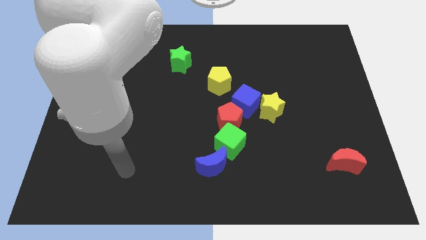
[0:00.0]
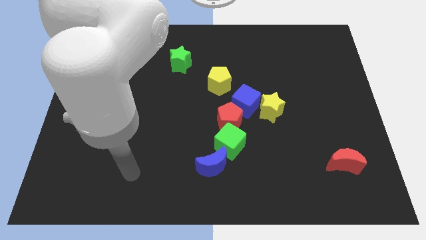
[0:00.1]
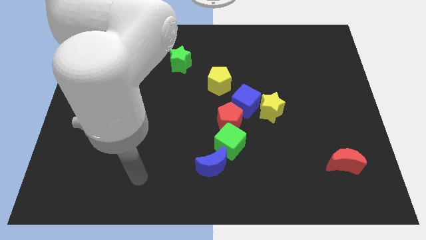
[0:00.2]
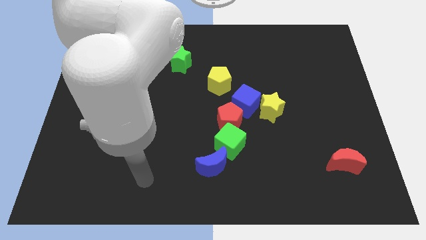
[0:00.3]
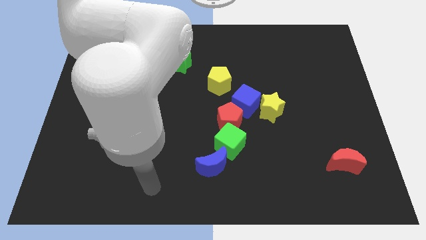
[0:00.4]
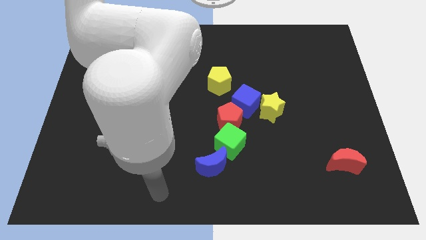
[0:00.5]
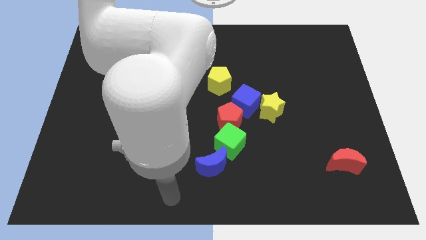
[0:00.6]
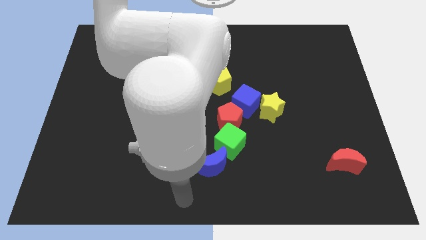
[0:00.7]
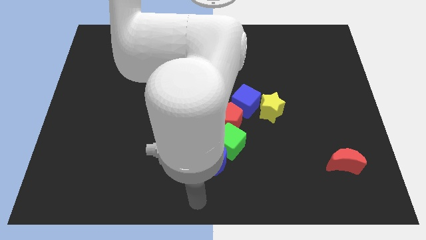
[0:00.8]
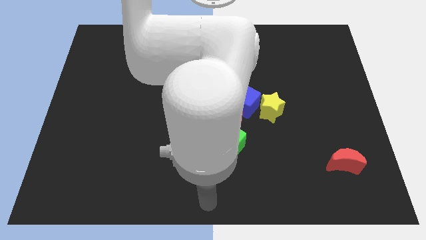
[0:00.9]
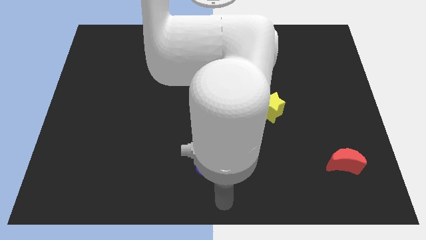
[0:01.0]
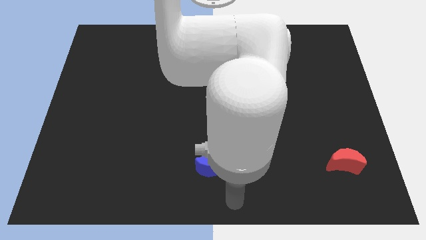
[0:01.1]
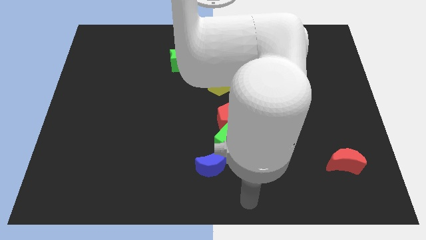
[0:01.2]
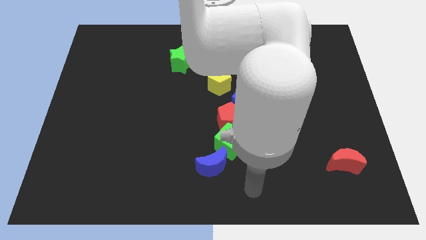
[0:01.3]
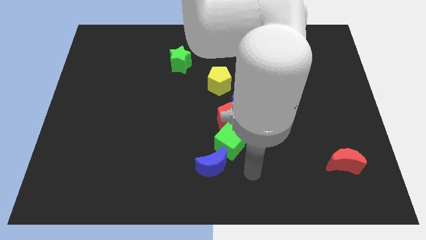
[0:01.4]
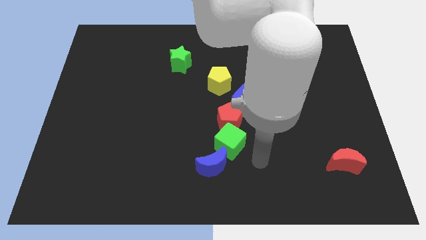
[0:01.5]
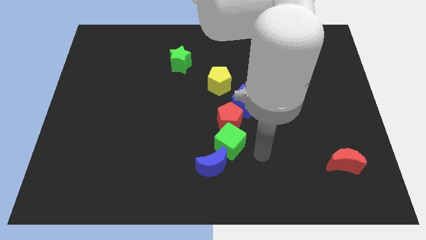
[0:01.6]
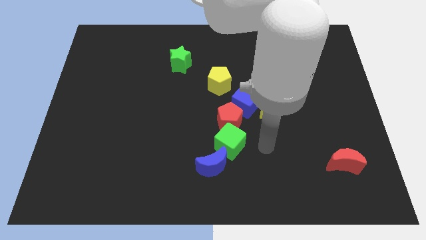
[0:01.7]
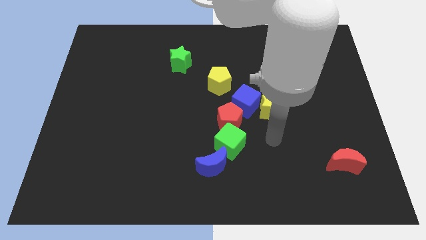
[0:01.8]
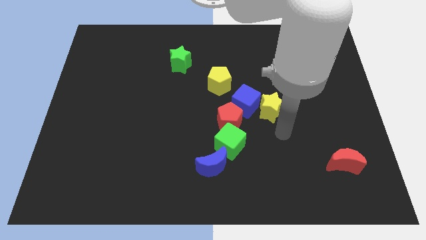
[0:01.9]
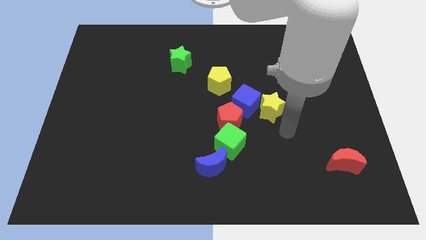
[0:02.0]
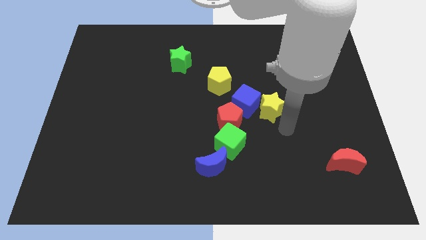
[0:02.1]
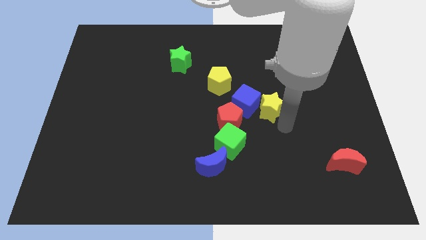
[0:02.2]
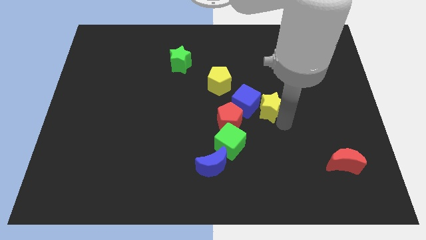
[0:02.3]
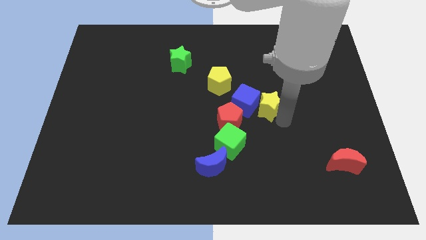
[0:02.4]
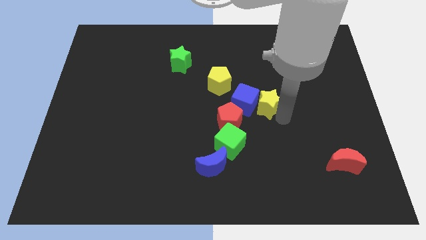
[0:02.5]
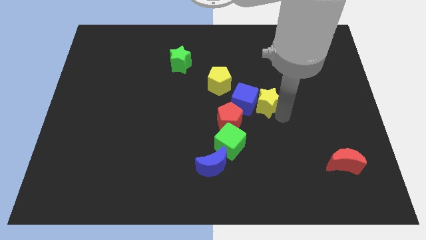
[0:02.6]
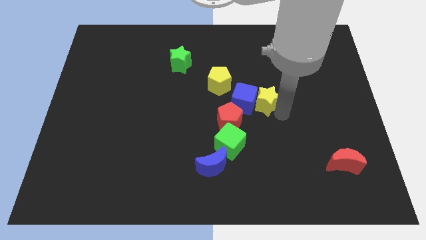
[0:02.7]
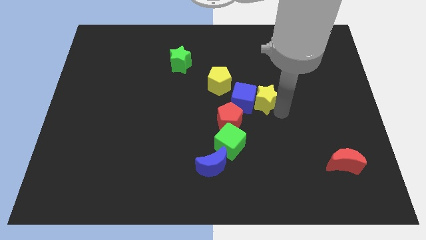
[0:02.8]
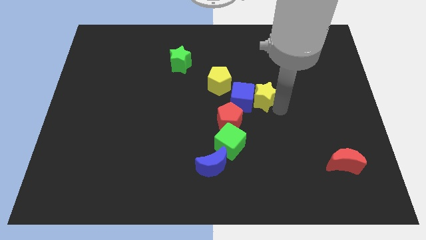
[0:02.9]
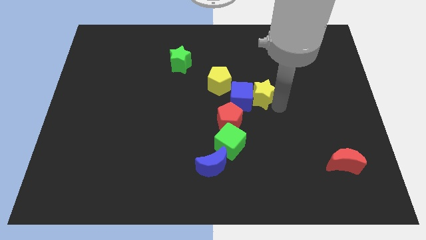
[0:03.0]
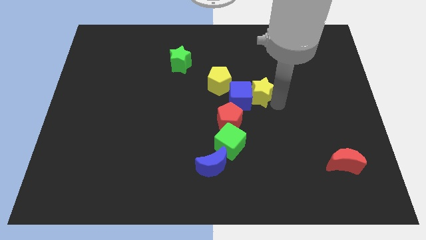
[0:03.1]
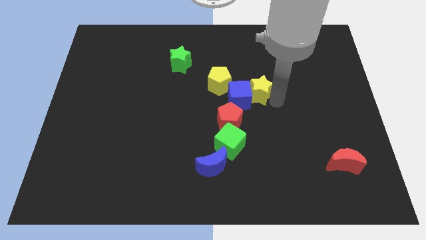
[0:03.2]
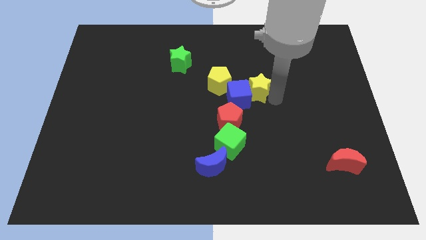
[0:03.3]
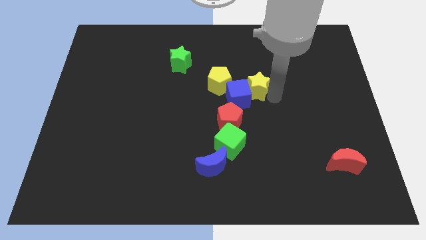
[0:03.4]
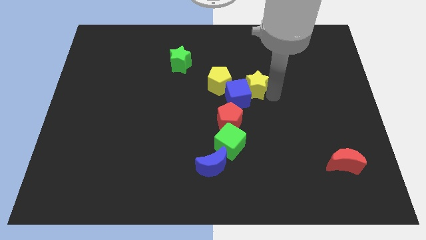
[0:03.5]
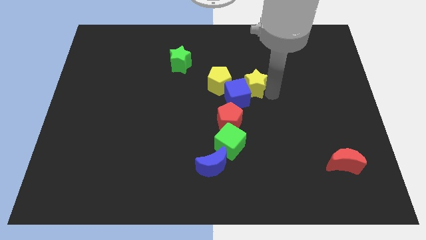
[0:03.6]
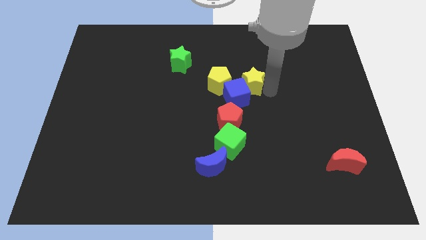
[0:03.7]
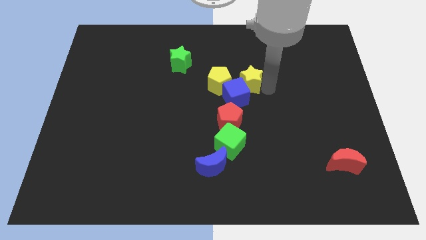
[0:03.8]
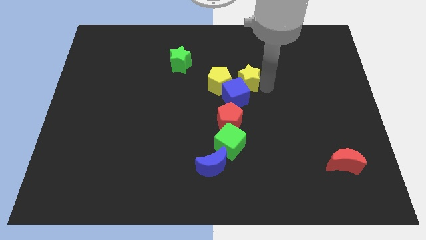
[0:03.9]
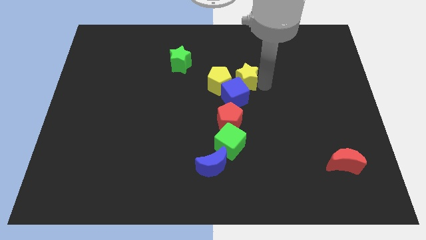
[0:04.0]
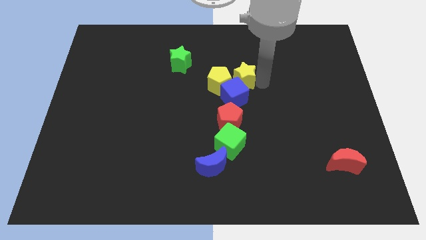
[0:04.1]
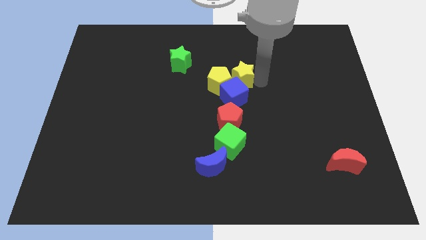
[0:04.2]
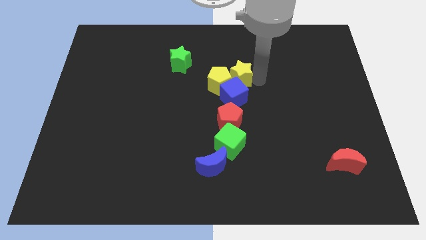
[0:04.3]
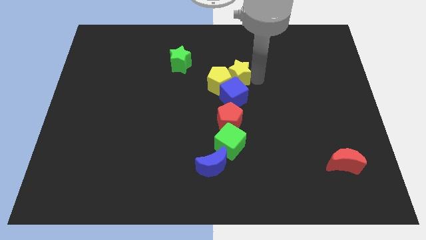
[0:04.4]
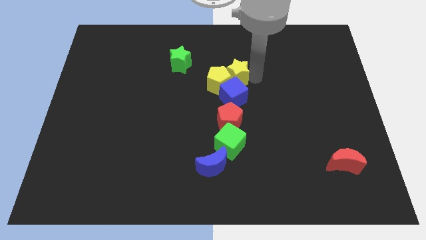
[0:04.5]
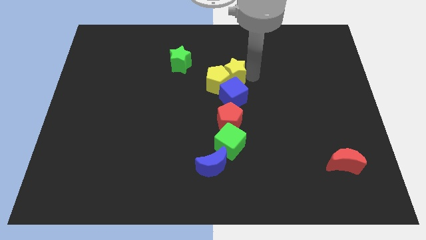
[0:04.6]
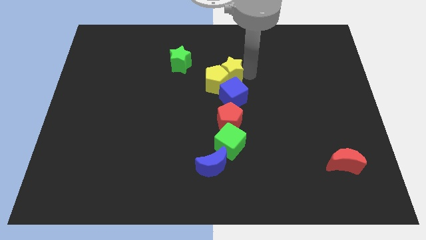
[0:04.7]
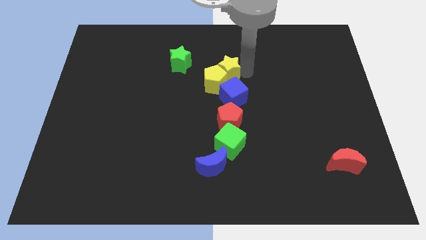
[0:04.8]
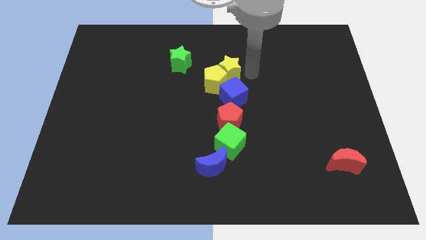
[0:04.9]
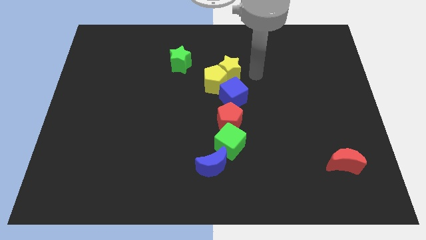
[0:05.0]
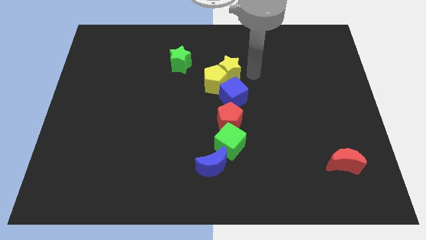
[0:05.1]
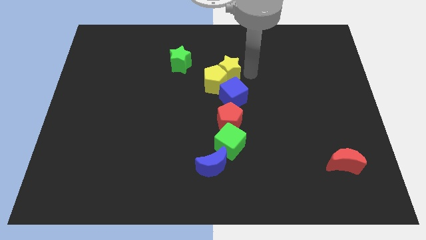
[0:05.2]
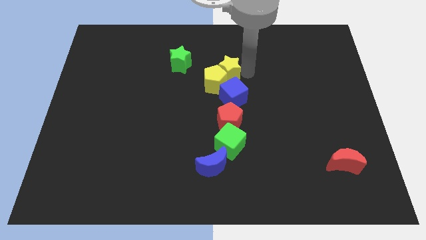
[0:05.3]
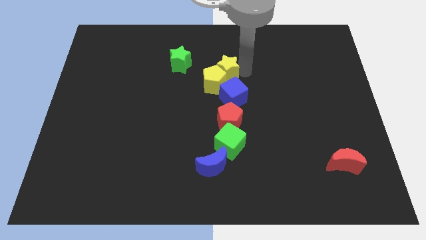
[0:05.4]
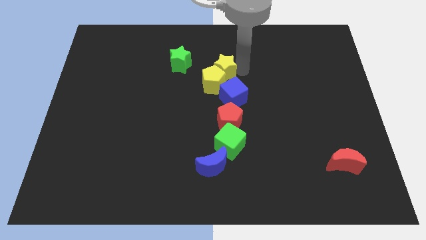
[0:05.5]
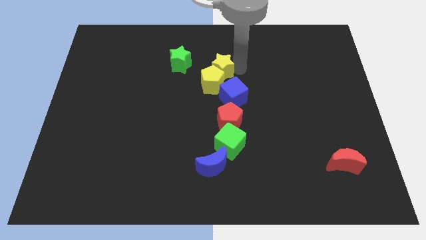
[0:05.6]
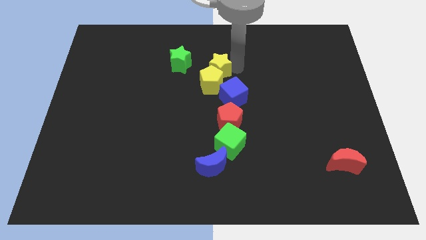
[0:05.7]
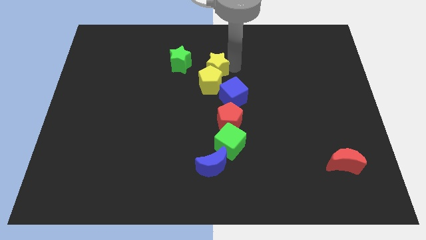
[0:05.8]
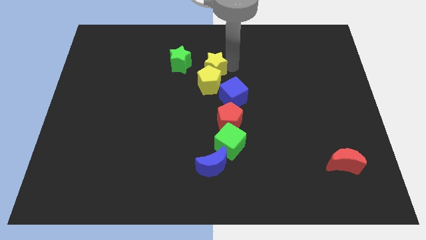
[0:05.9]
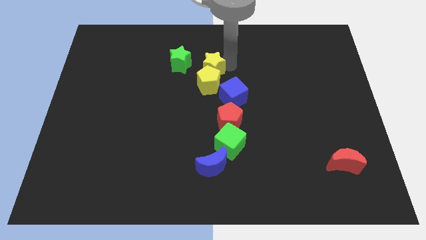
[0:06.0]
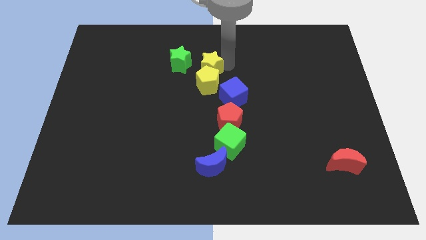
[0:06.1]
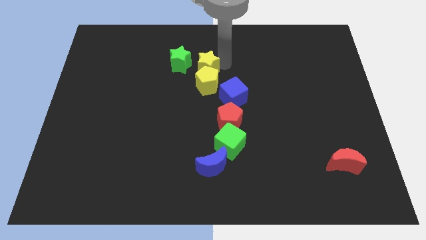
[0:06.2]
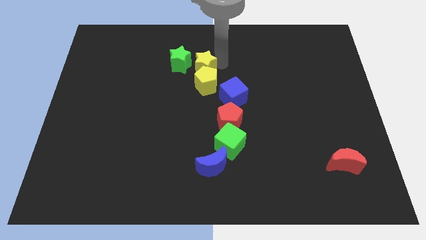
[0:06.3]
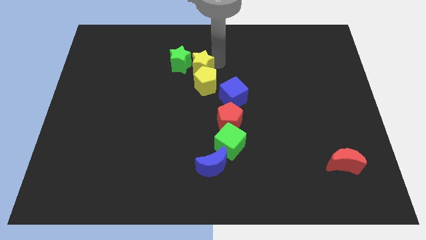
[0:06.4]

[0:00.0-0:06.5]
put the yellow star close to the green star
